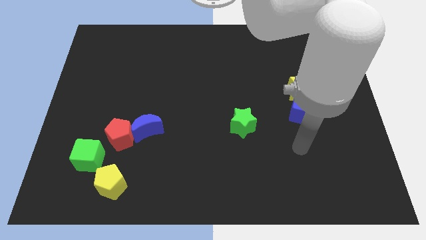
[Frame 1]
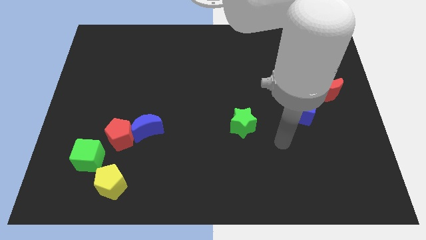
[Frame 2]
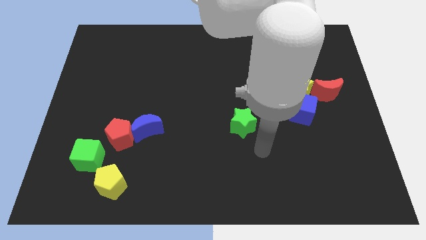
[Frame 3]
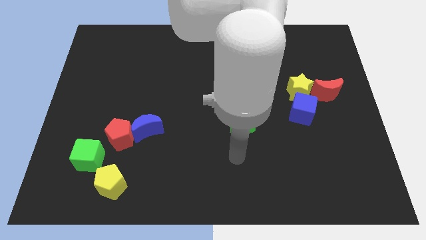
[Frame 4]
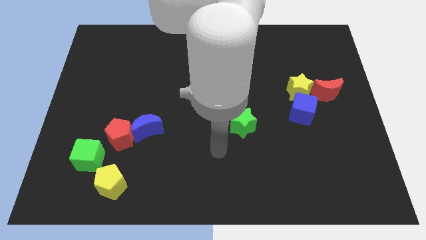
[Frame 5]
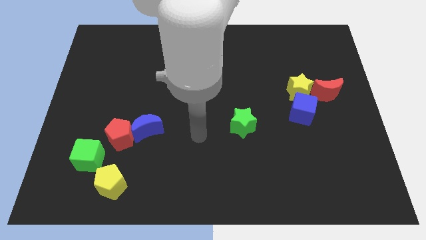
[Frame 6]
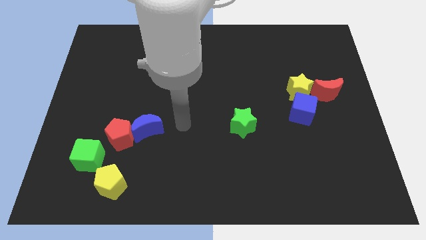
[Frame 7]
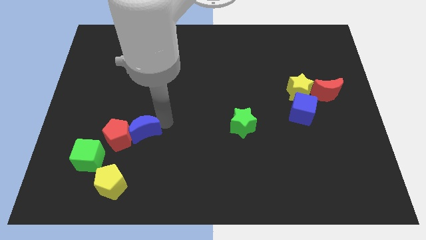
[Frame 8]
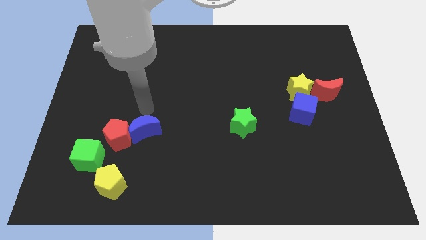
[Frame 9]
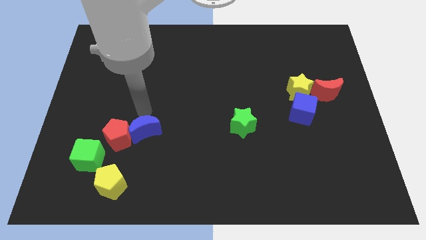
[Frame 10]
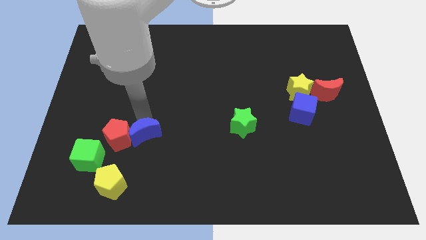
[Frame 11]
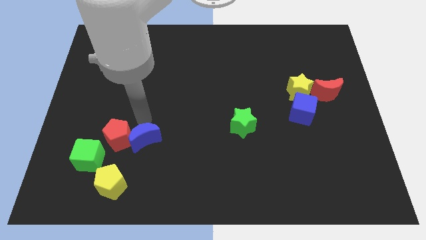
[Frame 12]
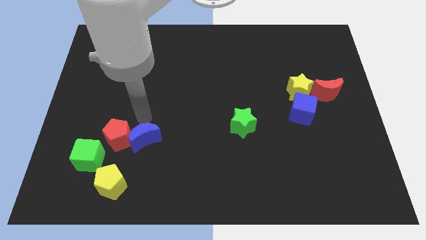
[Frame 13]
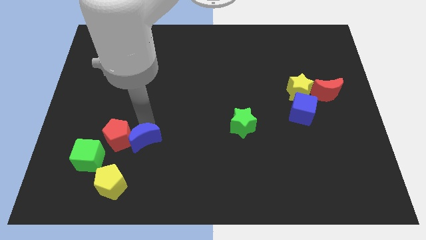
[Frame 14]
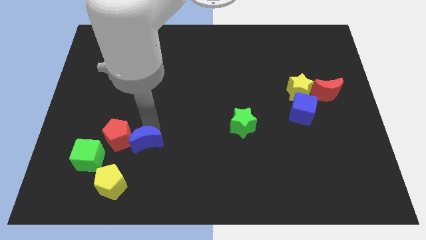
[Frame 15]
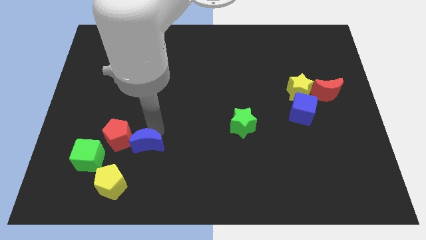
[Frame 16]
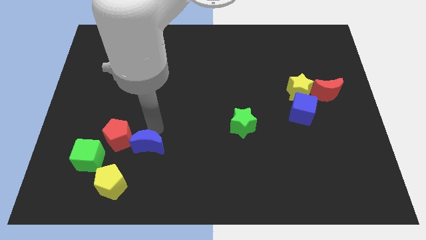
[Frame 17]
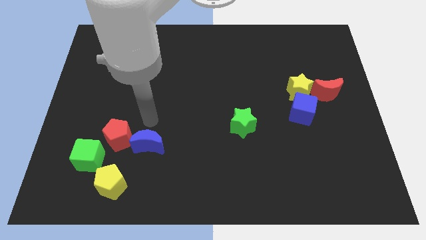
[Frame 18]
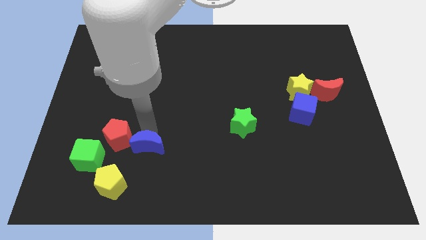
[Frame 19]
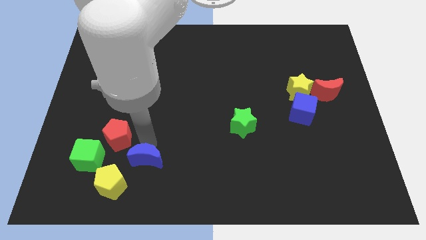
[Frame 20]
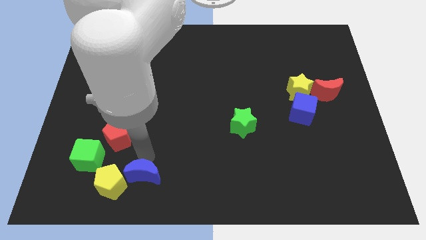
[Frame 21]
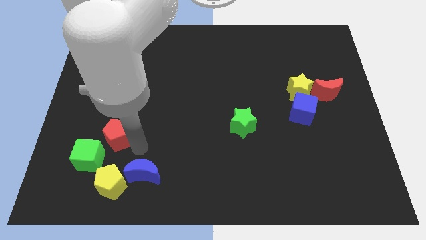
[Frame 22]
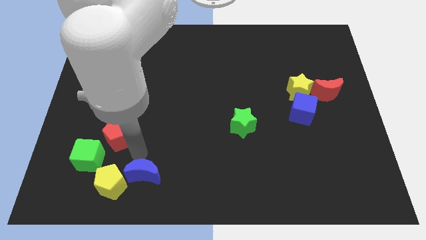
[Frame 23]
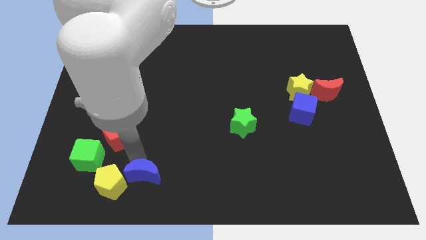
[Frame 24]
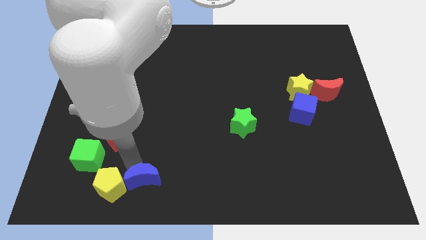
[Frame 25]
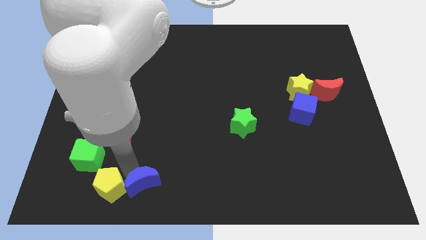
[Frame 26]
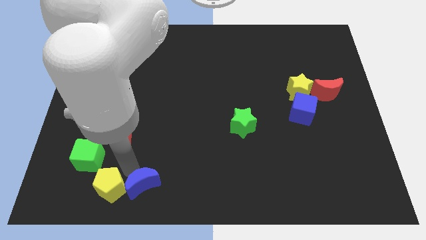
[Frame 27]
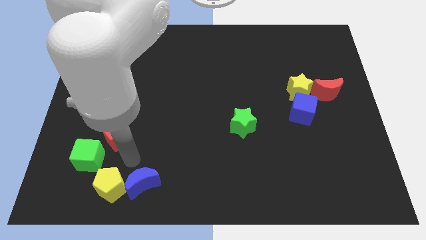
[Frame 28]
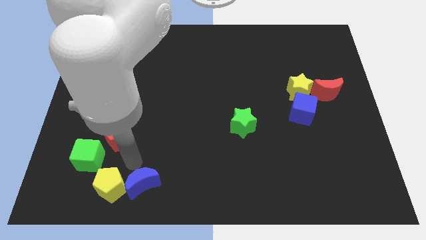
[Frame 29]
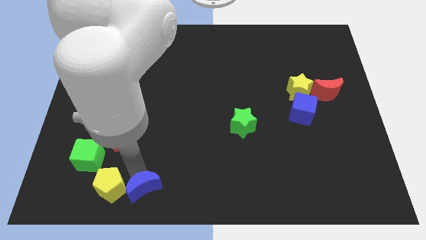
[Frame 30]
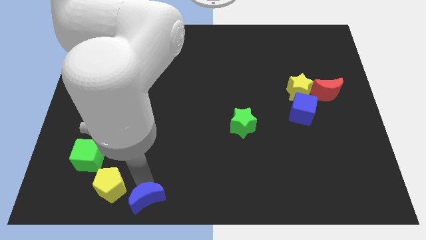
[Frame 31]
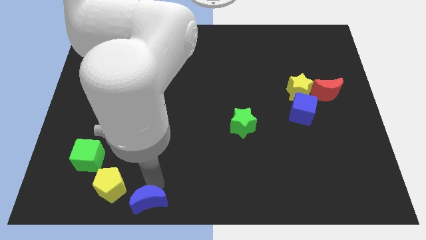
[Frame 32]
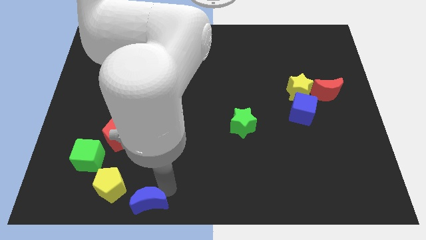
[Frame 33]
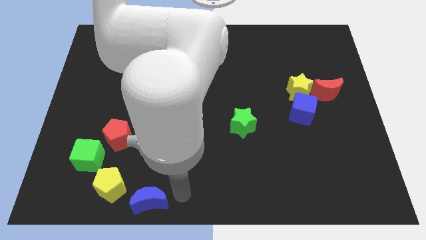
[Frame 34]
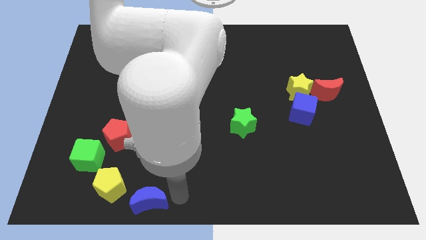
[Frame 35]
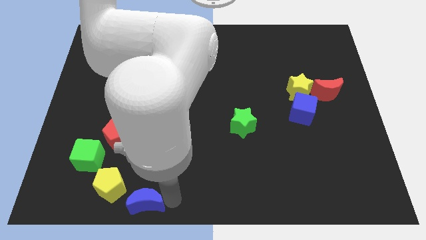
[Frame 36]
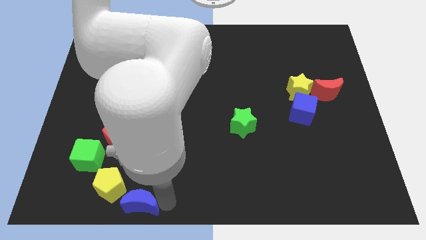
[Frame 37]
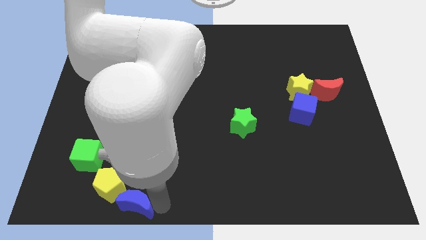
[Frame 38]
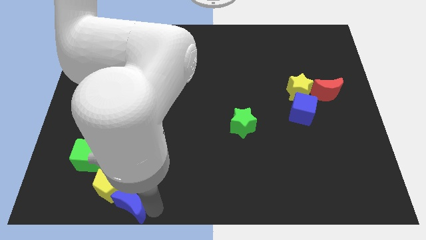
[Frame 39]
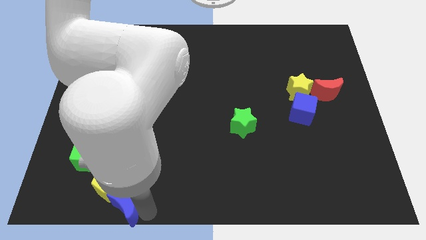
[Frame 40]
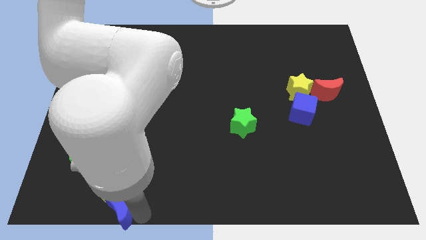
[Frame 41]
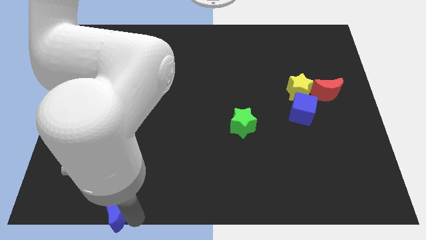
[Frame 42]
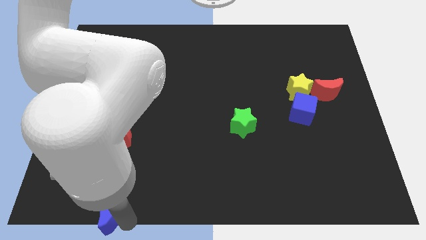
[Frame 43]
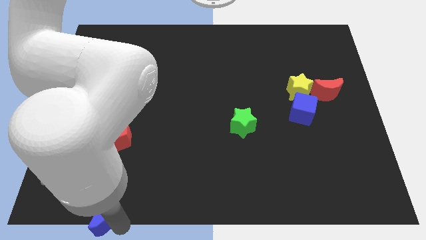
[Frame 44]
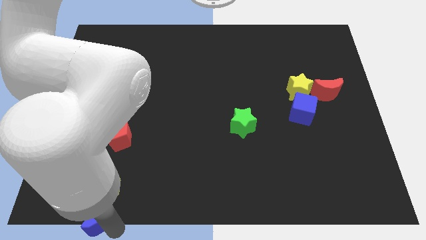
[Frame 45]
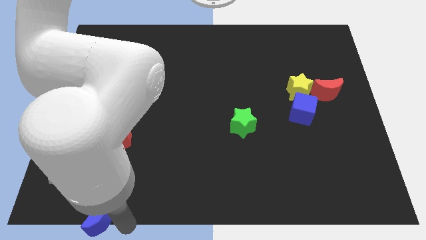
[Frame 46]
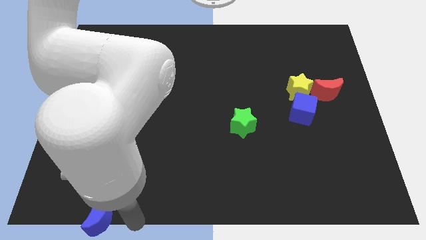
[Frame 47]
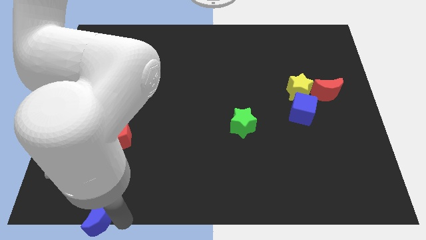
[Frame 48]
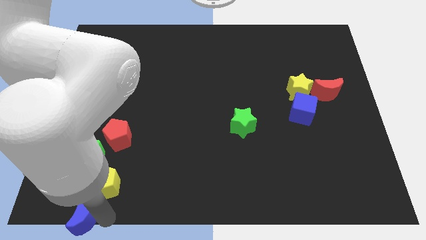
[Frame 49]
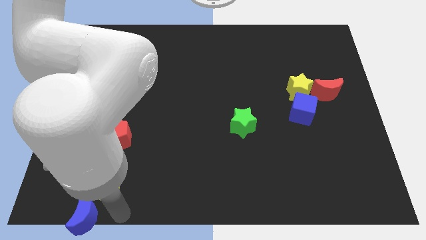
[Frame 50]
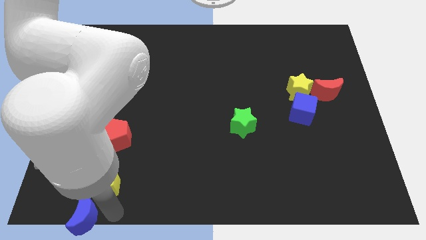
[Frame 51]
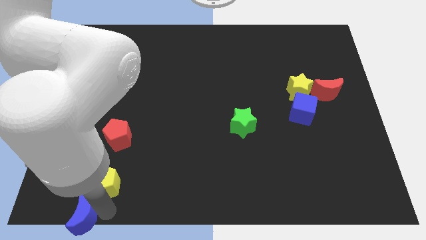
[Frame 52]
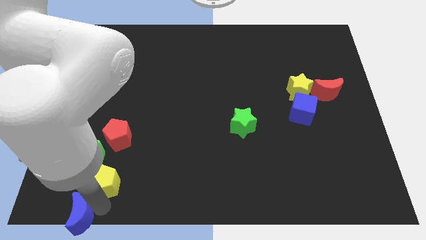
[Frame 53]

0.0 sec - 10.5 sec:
push the blue moon to the lower left corner

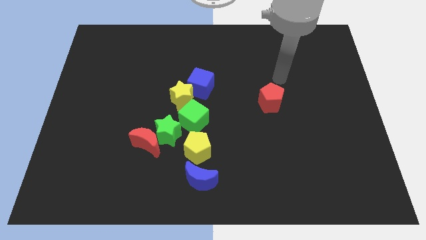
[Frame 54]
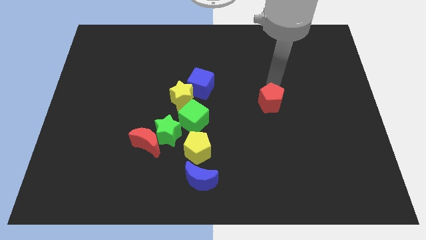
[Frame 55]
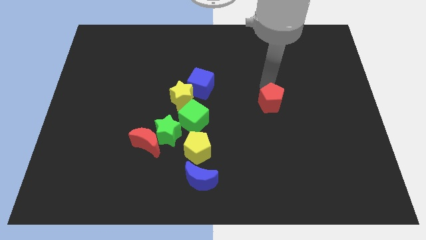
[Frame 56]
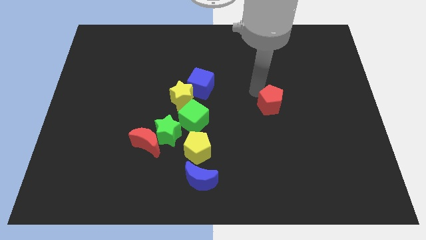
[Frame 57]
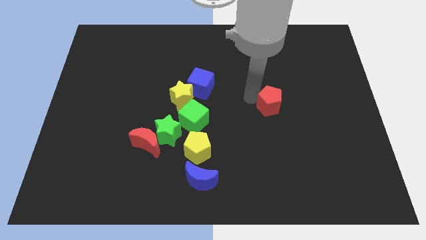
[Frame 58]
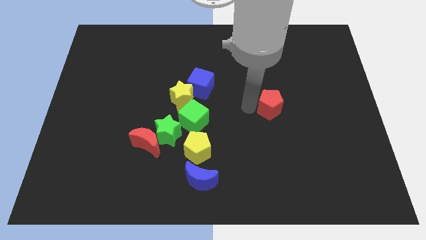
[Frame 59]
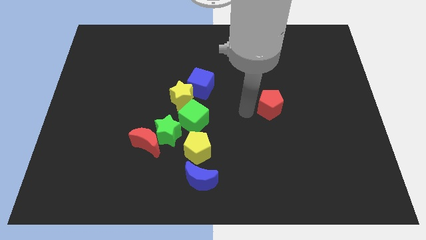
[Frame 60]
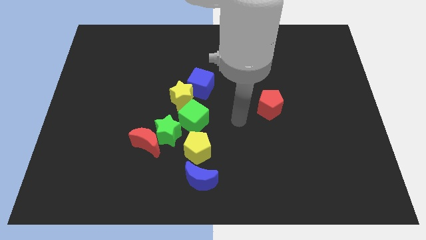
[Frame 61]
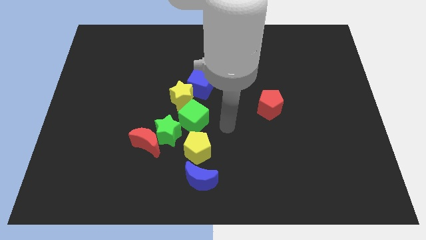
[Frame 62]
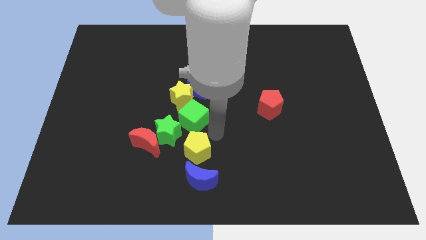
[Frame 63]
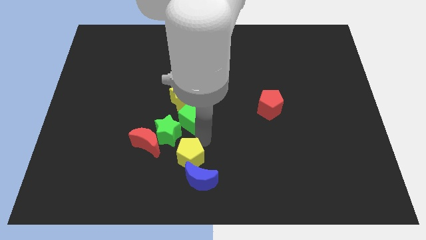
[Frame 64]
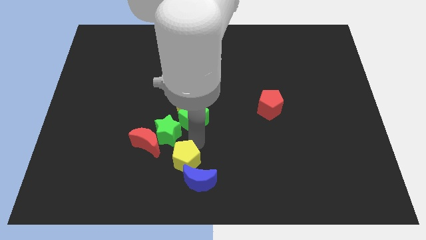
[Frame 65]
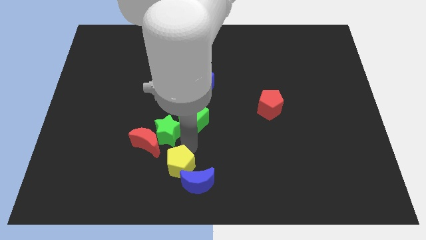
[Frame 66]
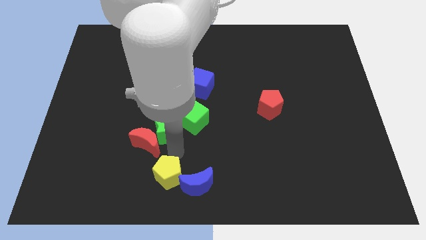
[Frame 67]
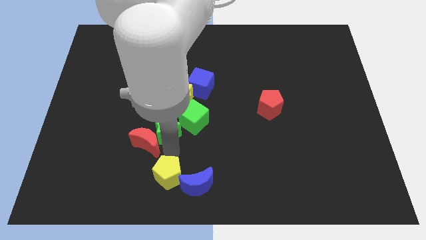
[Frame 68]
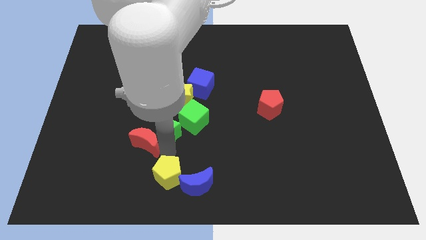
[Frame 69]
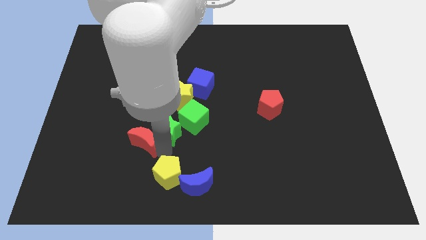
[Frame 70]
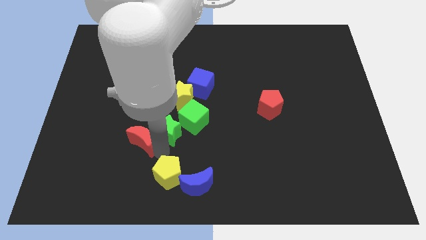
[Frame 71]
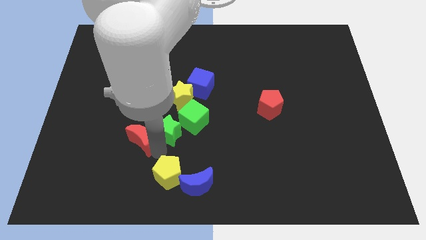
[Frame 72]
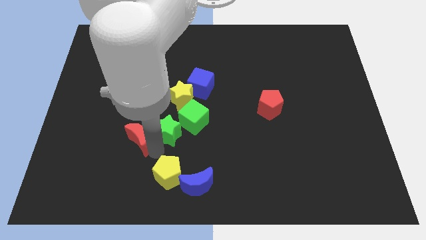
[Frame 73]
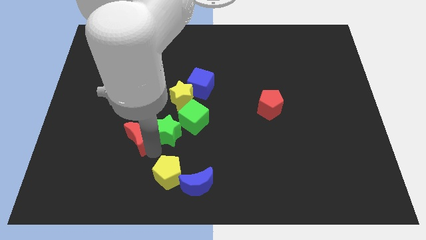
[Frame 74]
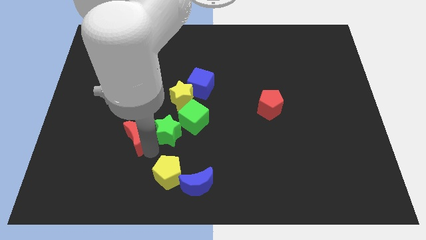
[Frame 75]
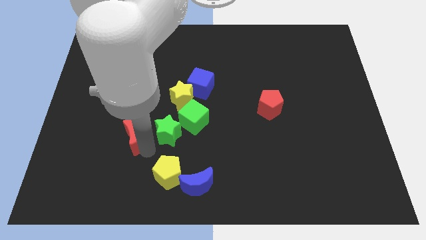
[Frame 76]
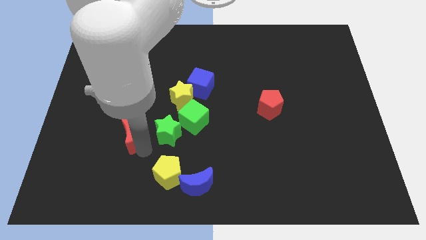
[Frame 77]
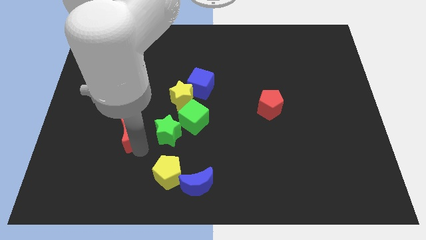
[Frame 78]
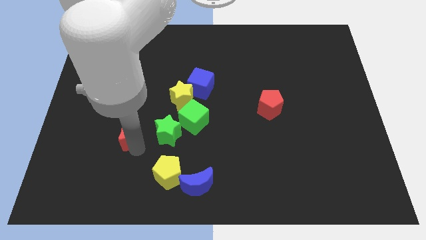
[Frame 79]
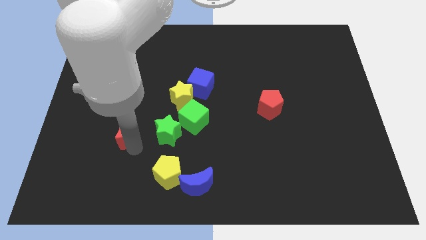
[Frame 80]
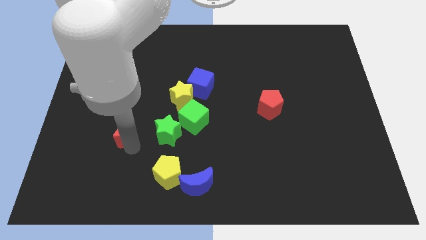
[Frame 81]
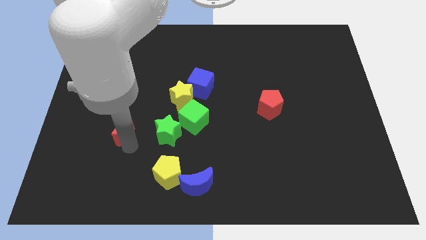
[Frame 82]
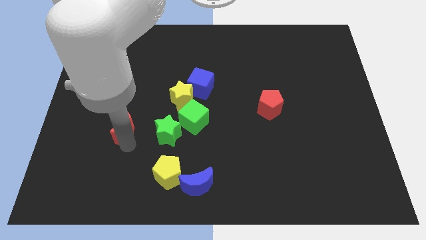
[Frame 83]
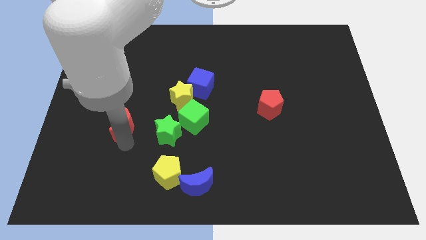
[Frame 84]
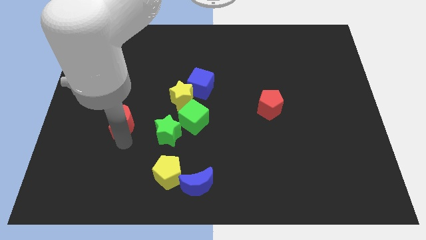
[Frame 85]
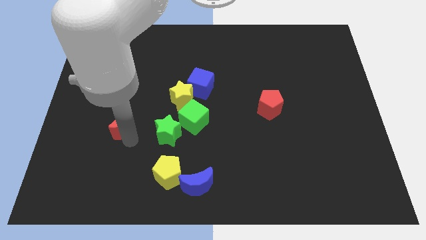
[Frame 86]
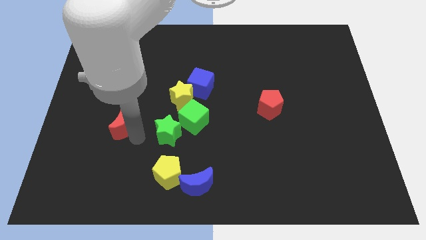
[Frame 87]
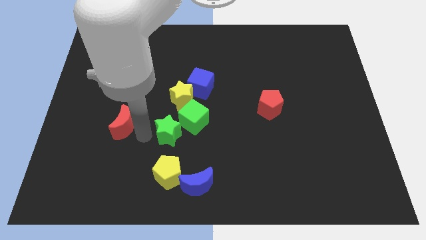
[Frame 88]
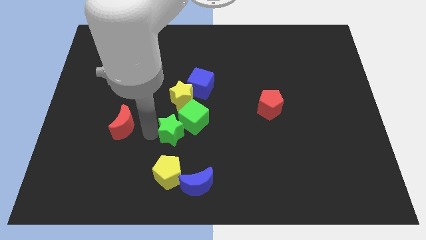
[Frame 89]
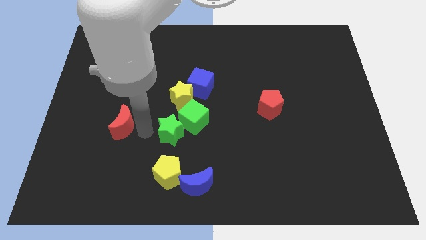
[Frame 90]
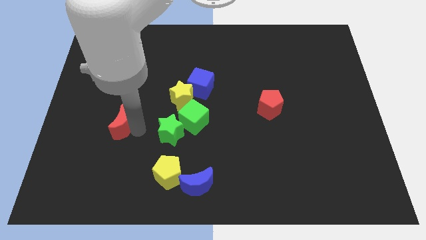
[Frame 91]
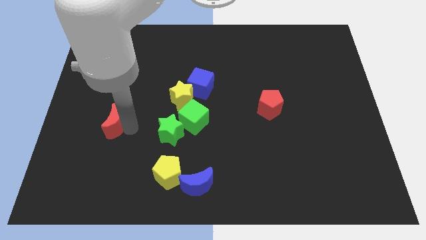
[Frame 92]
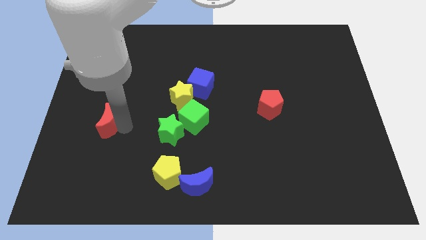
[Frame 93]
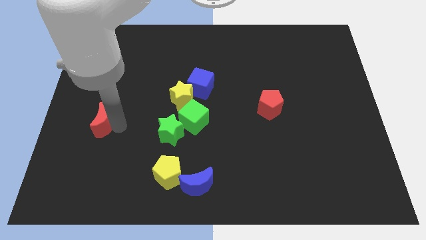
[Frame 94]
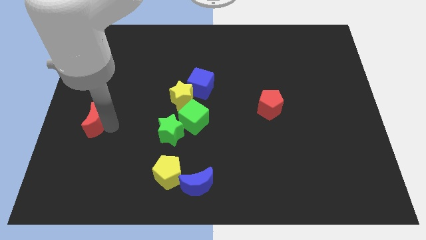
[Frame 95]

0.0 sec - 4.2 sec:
slide the red moon to the left side
